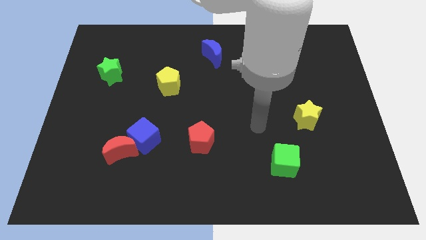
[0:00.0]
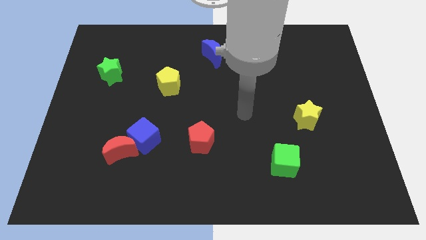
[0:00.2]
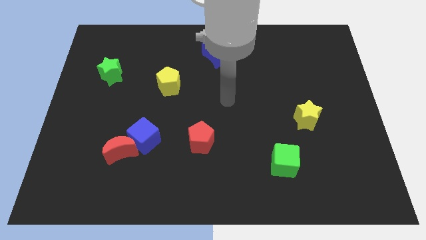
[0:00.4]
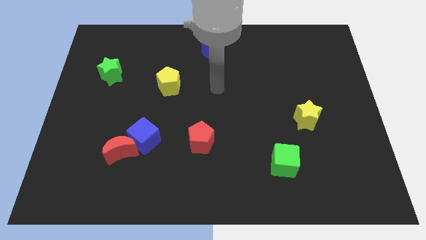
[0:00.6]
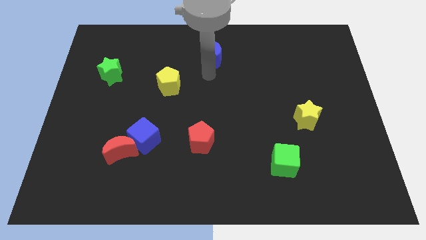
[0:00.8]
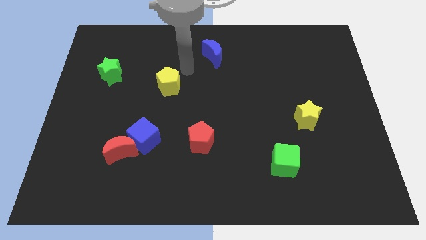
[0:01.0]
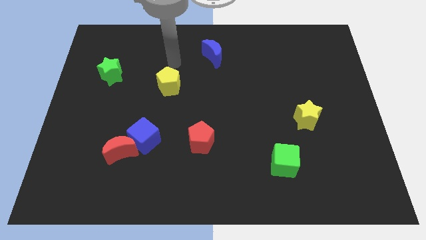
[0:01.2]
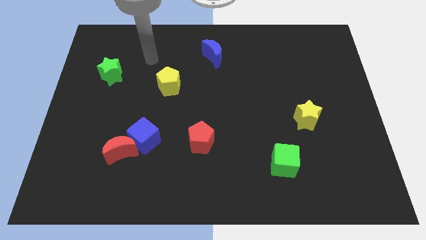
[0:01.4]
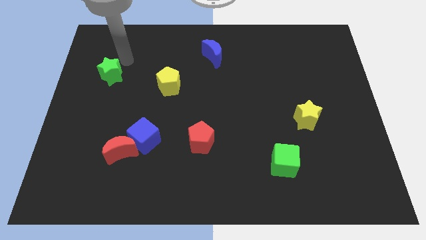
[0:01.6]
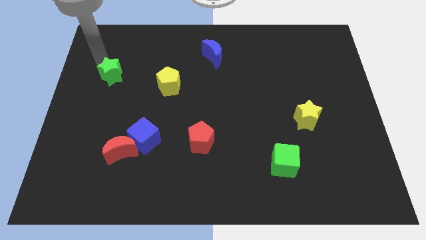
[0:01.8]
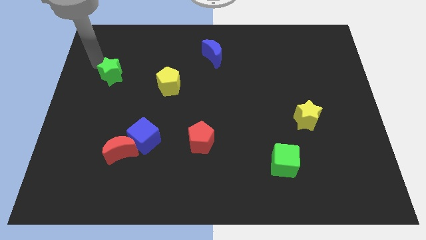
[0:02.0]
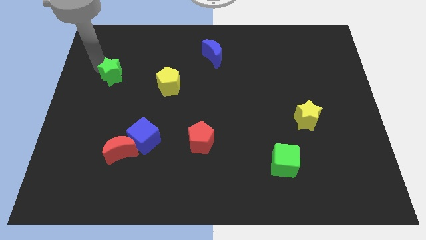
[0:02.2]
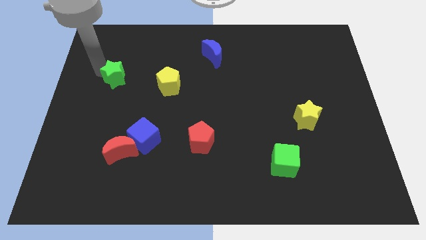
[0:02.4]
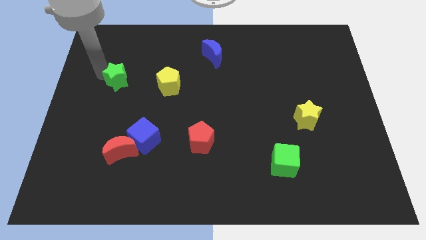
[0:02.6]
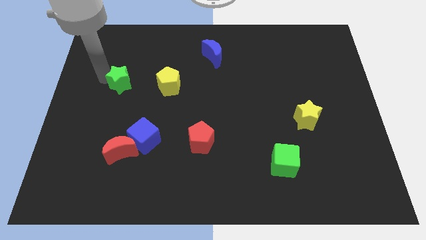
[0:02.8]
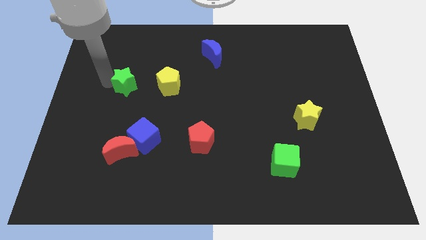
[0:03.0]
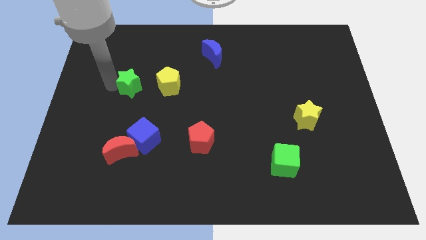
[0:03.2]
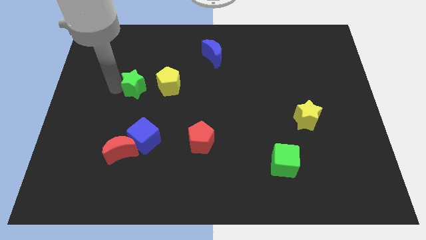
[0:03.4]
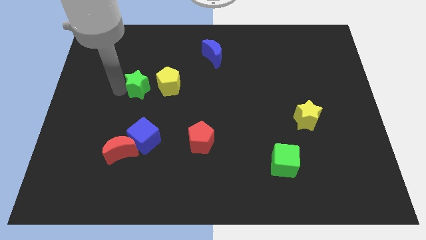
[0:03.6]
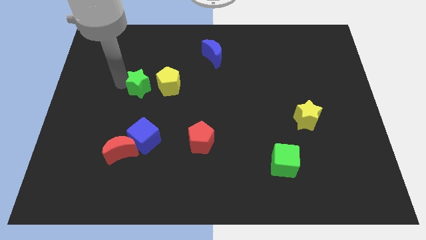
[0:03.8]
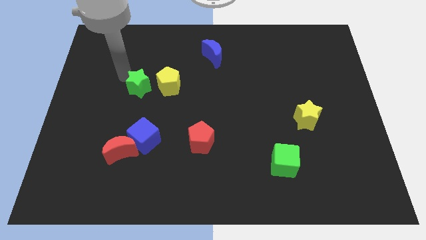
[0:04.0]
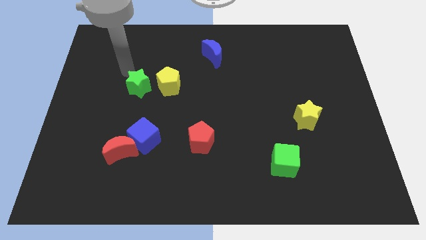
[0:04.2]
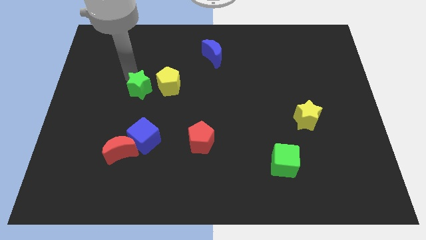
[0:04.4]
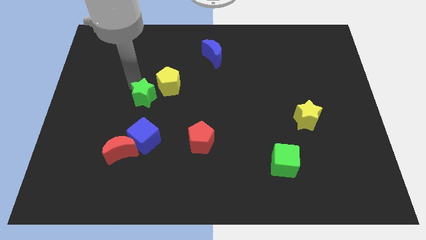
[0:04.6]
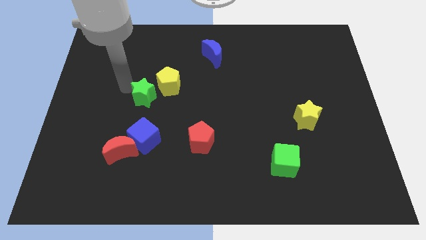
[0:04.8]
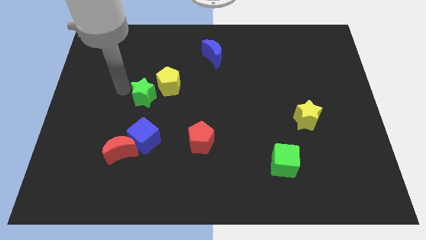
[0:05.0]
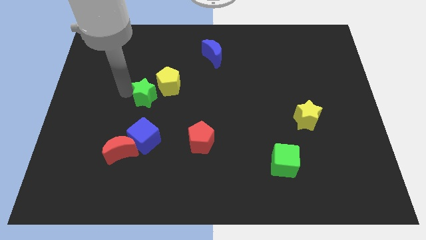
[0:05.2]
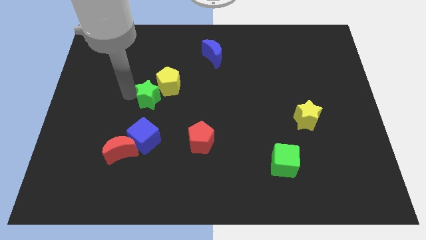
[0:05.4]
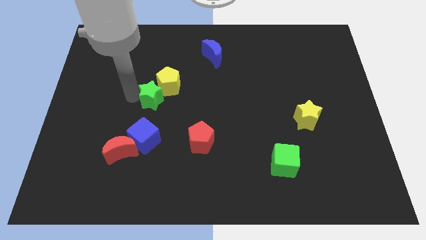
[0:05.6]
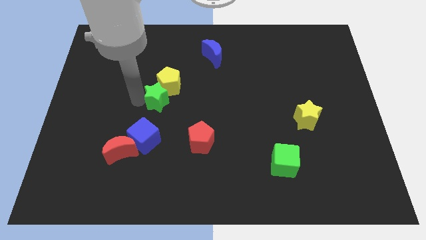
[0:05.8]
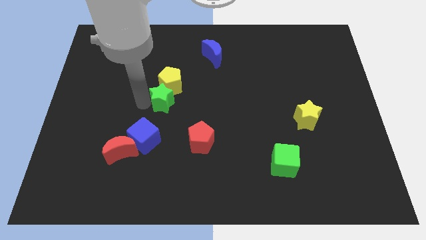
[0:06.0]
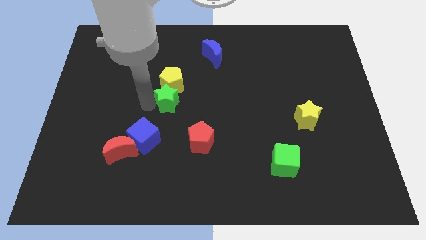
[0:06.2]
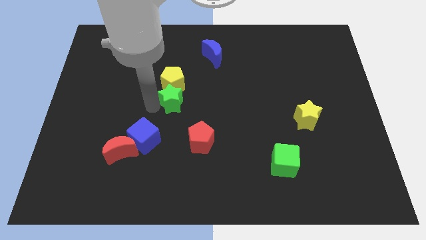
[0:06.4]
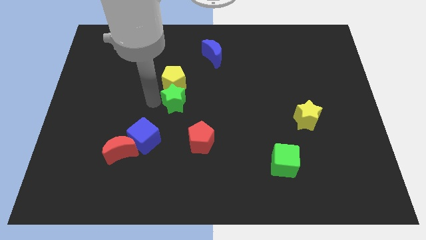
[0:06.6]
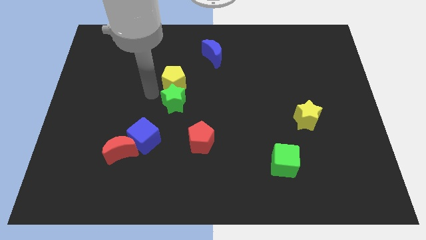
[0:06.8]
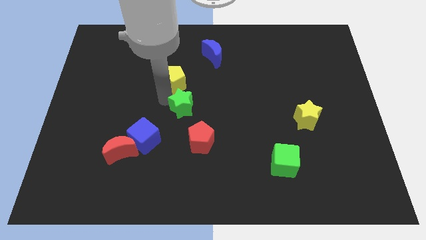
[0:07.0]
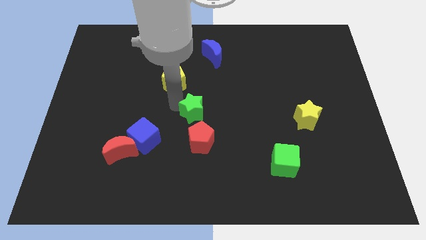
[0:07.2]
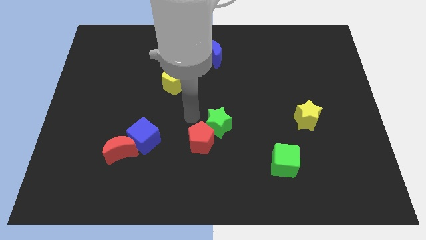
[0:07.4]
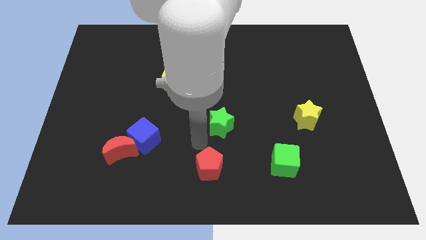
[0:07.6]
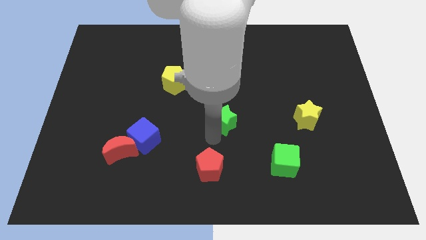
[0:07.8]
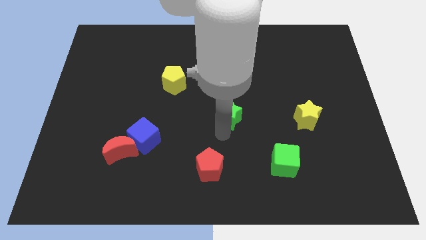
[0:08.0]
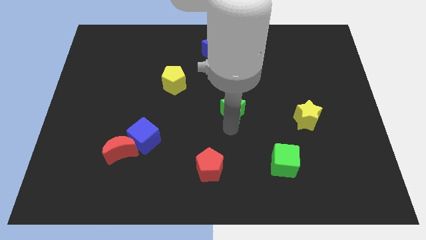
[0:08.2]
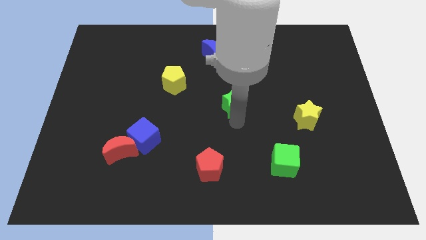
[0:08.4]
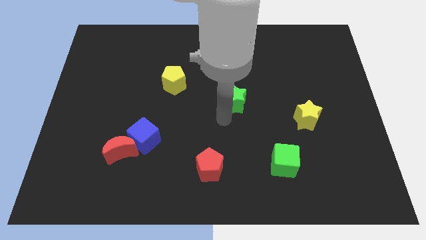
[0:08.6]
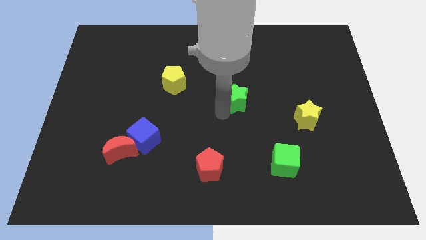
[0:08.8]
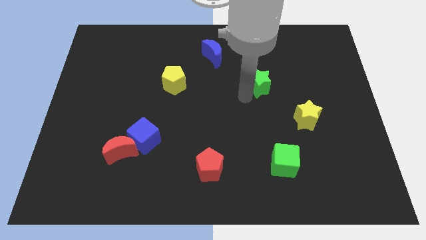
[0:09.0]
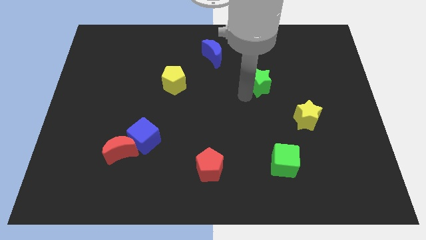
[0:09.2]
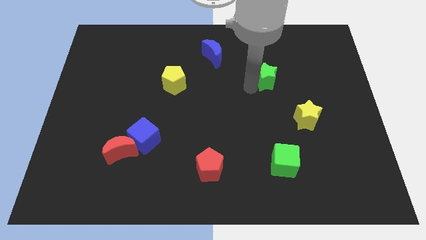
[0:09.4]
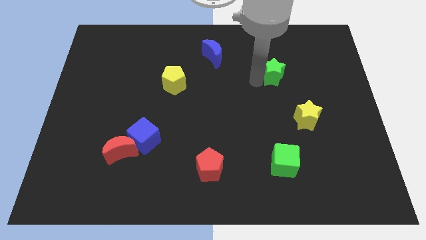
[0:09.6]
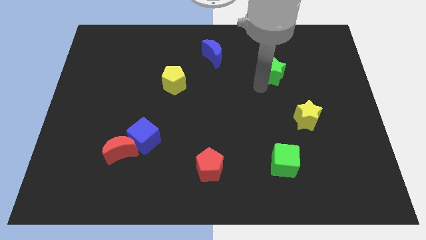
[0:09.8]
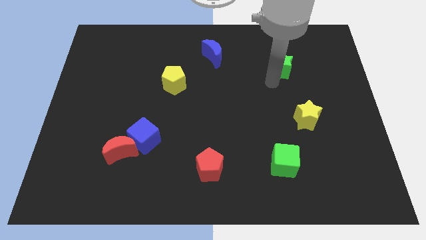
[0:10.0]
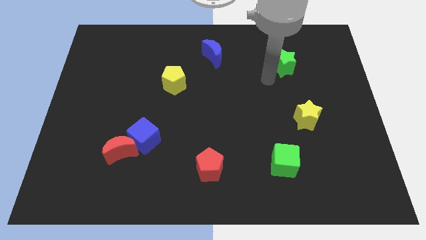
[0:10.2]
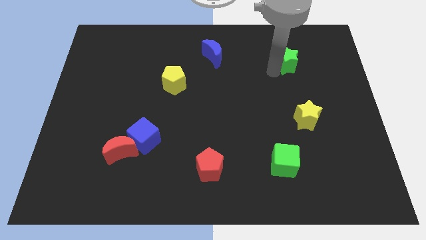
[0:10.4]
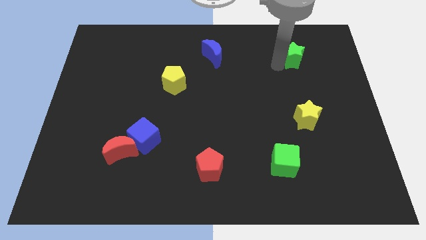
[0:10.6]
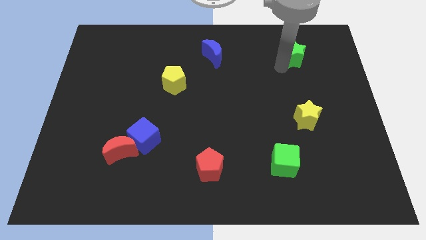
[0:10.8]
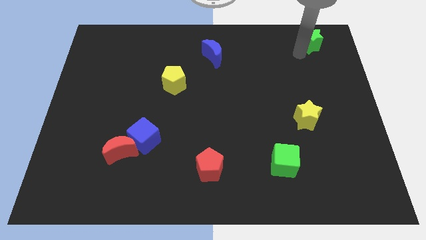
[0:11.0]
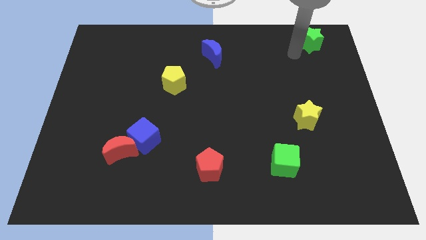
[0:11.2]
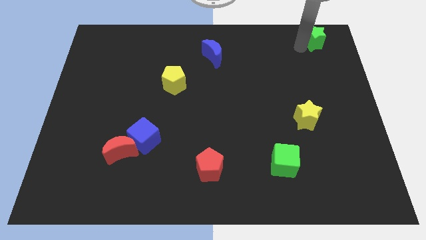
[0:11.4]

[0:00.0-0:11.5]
slide the green star to the top right
